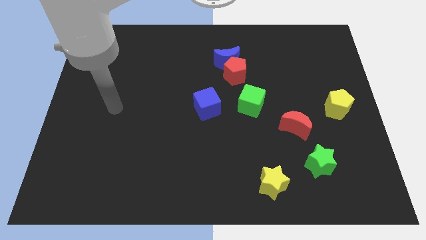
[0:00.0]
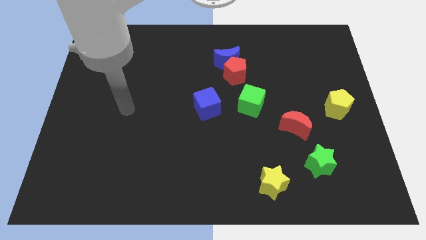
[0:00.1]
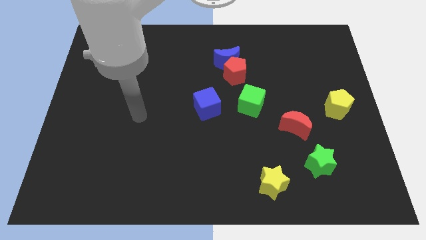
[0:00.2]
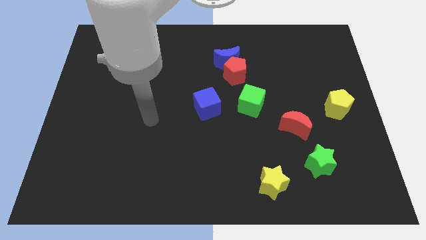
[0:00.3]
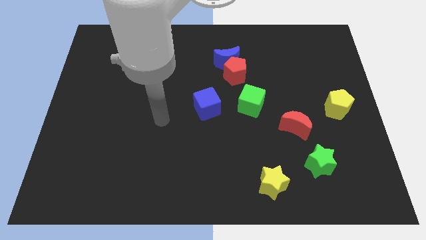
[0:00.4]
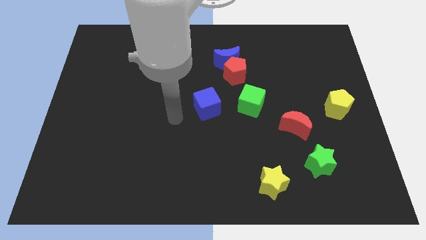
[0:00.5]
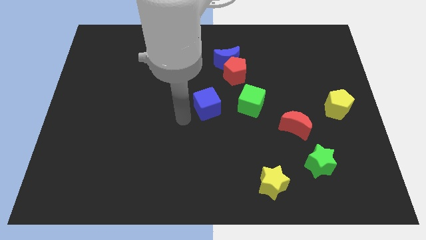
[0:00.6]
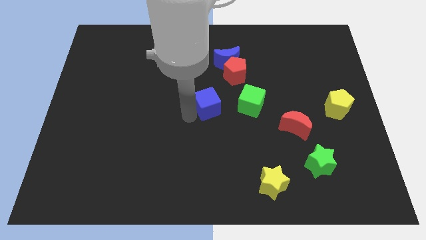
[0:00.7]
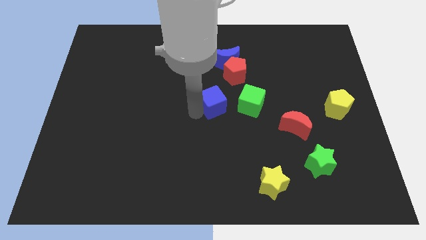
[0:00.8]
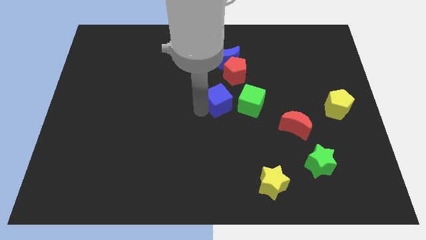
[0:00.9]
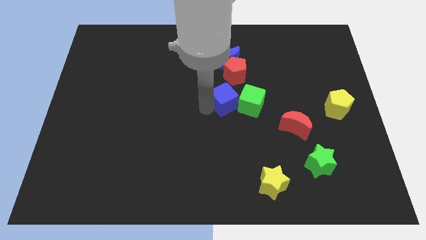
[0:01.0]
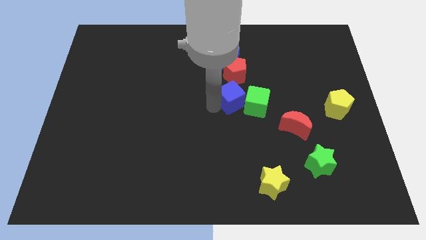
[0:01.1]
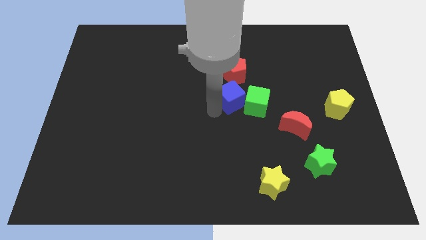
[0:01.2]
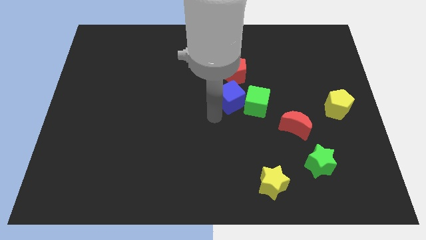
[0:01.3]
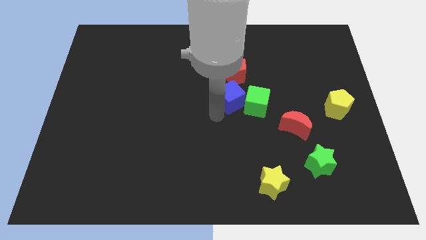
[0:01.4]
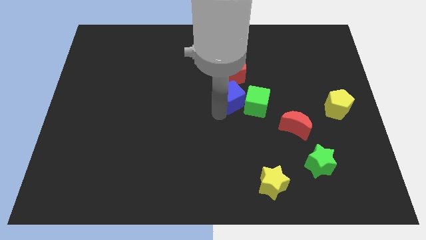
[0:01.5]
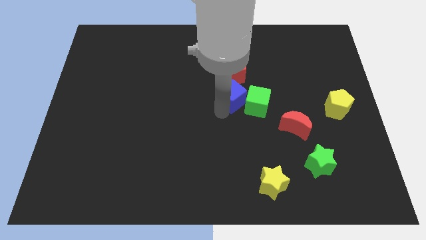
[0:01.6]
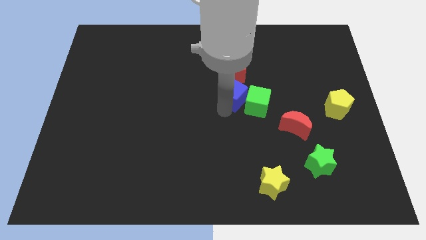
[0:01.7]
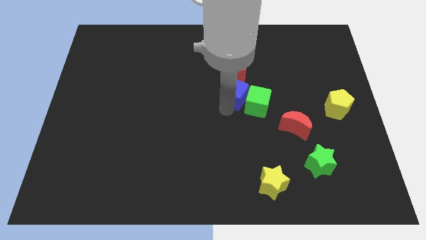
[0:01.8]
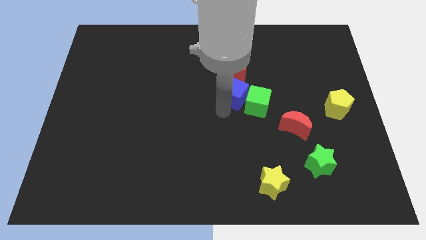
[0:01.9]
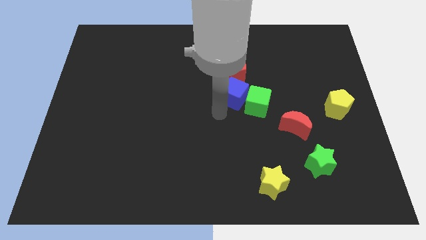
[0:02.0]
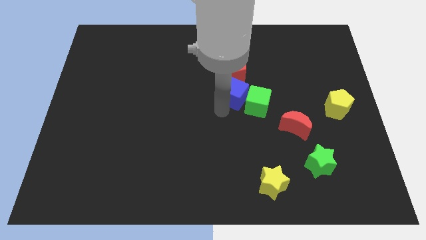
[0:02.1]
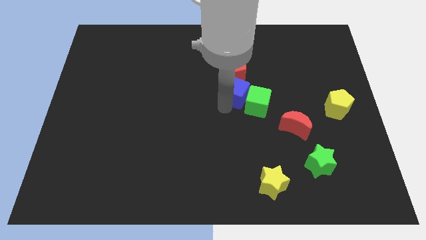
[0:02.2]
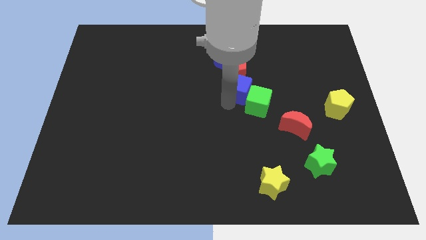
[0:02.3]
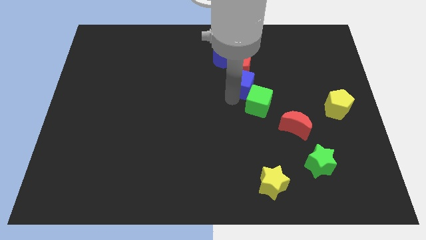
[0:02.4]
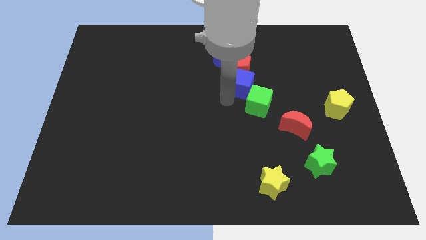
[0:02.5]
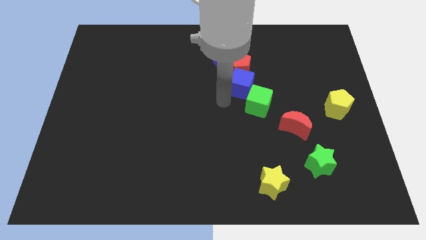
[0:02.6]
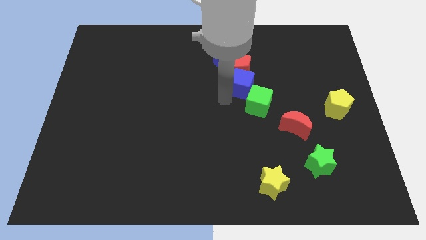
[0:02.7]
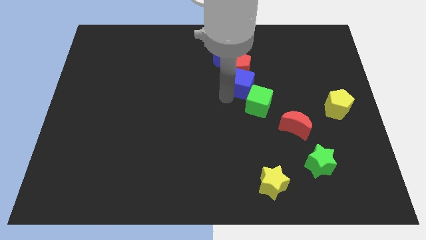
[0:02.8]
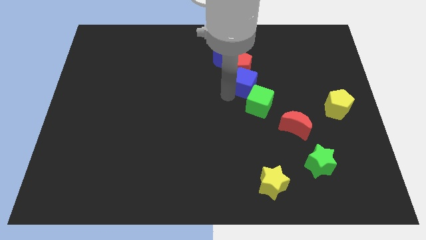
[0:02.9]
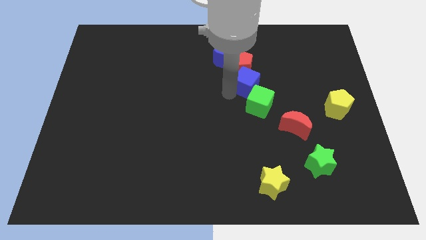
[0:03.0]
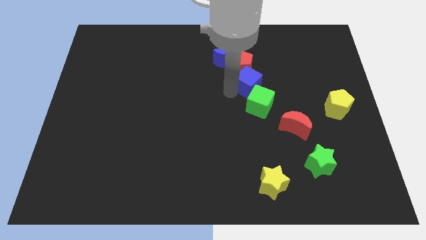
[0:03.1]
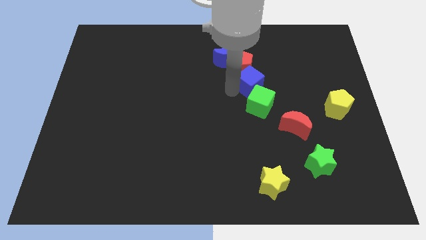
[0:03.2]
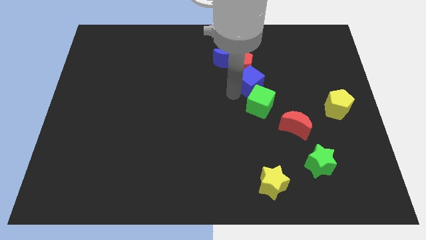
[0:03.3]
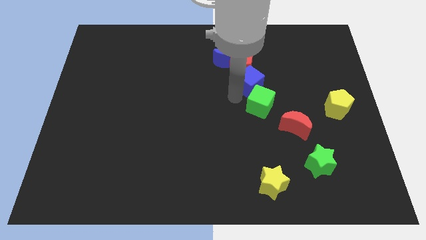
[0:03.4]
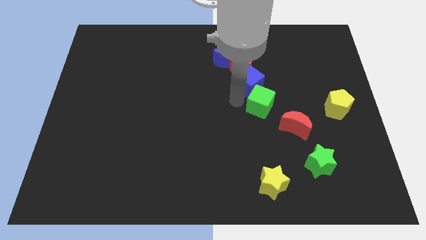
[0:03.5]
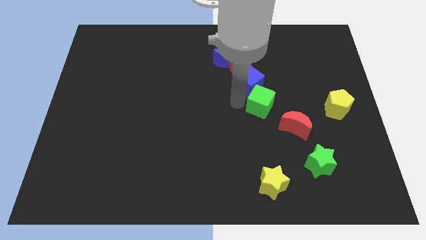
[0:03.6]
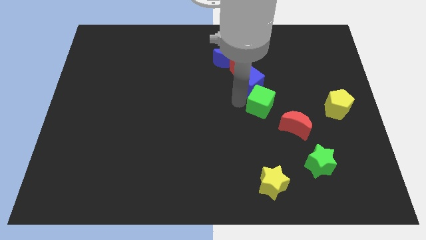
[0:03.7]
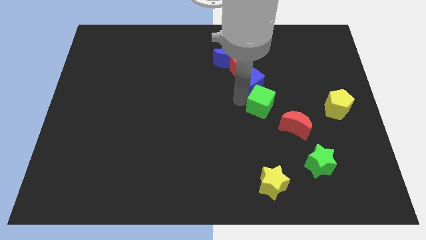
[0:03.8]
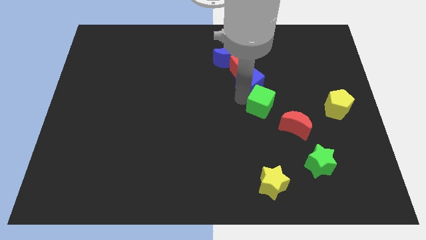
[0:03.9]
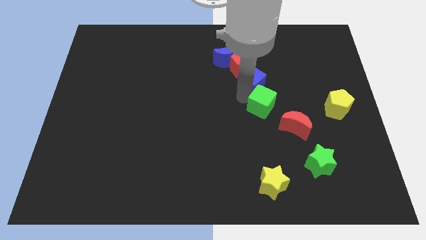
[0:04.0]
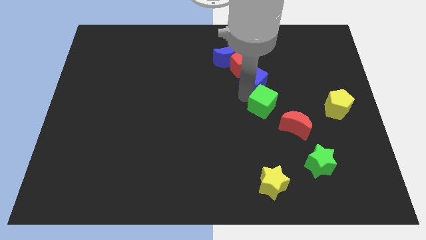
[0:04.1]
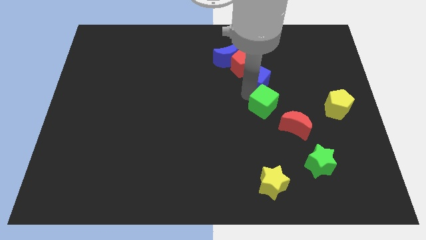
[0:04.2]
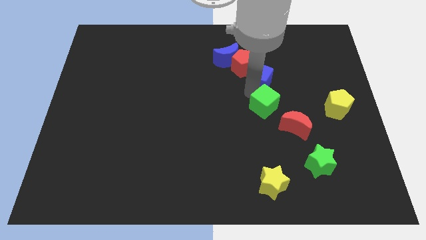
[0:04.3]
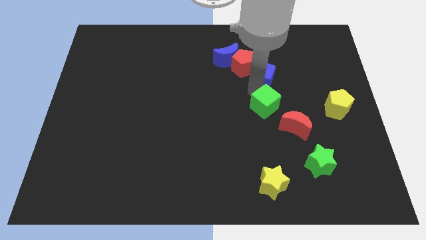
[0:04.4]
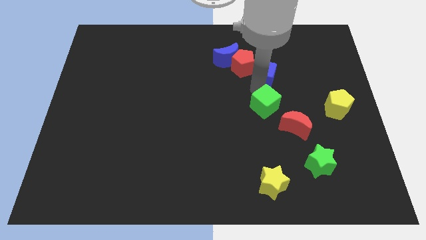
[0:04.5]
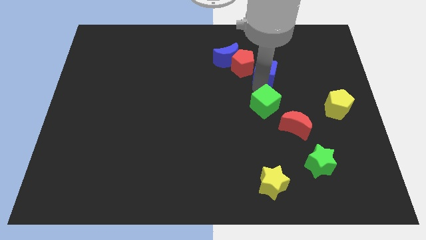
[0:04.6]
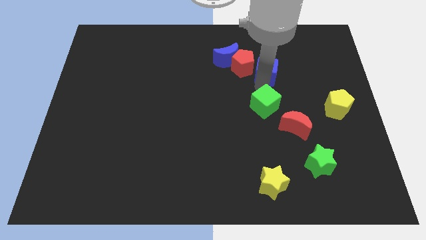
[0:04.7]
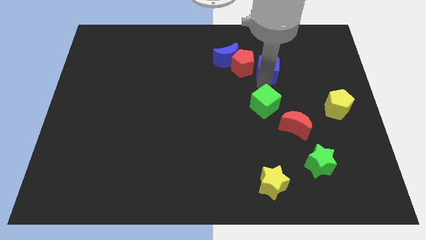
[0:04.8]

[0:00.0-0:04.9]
put the blue cube right of the blue moon

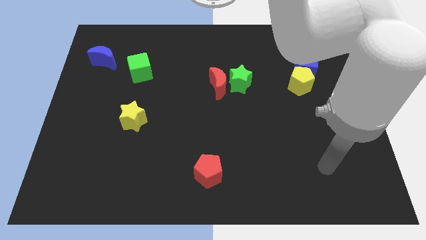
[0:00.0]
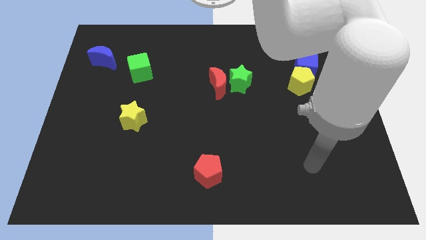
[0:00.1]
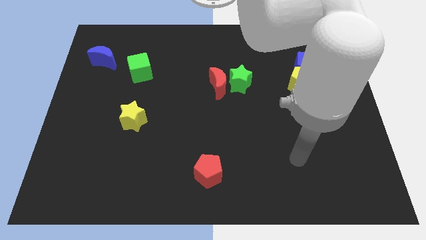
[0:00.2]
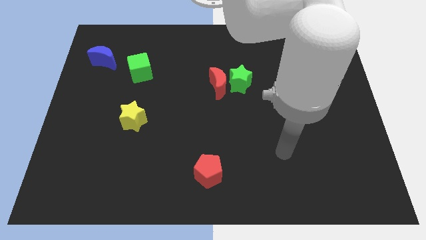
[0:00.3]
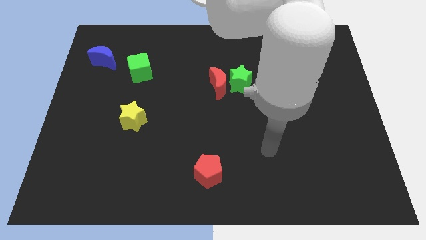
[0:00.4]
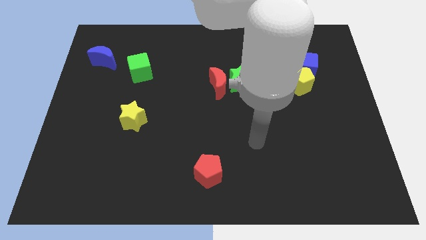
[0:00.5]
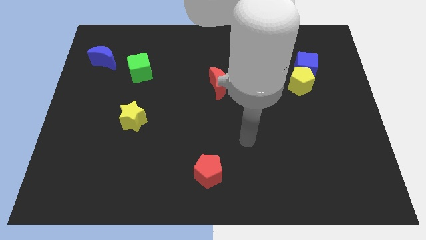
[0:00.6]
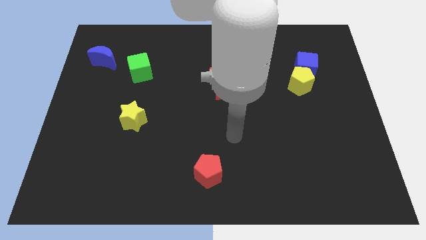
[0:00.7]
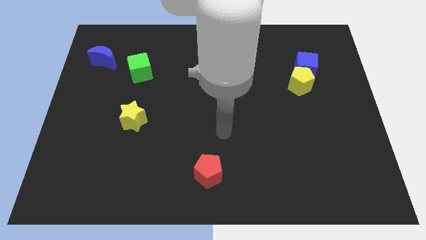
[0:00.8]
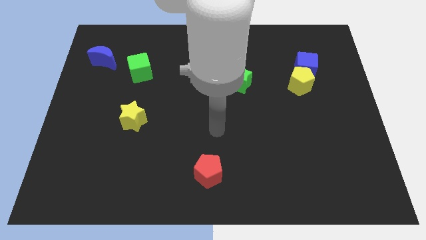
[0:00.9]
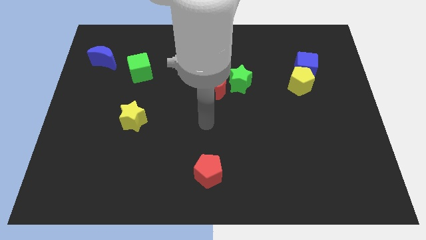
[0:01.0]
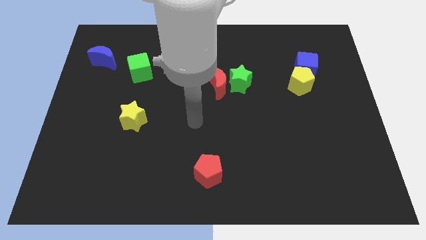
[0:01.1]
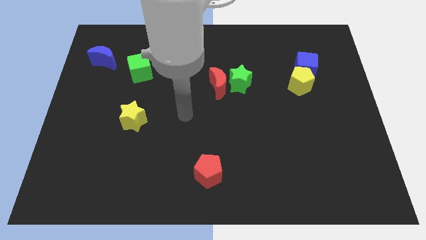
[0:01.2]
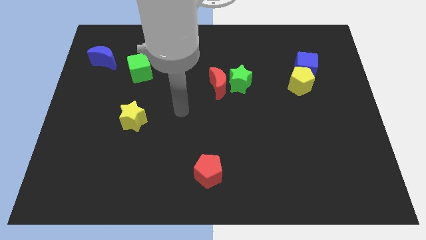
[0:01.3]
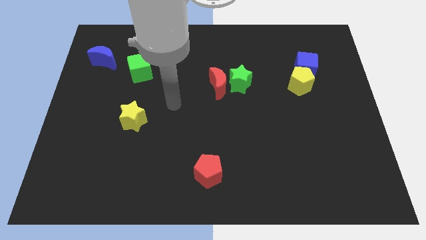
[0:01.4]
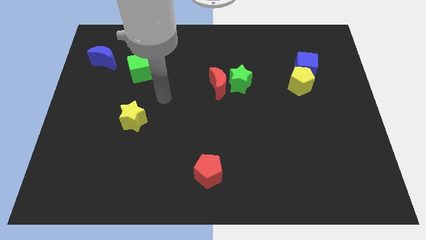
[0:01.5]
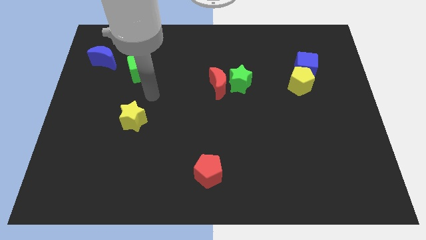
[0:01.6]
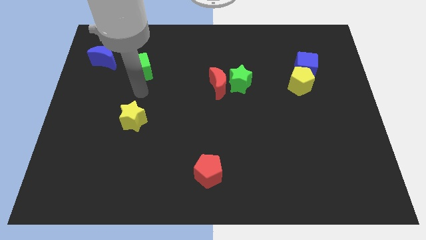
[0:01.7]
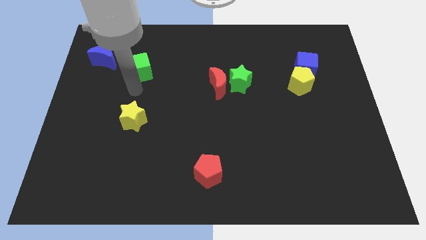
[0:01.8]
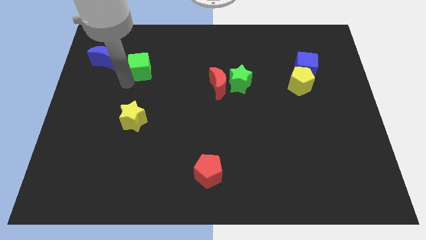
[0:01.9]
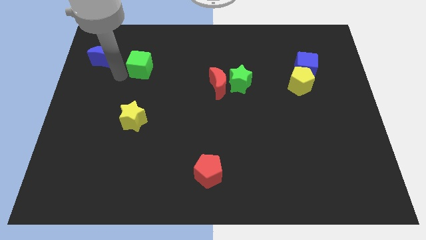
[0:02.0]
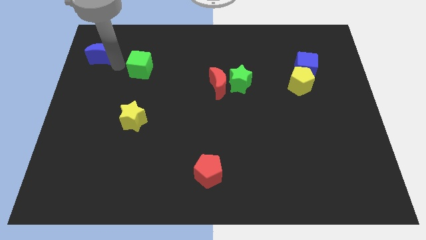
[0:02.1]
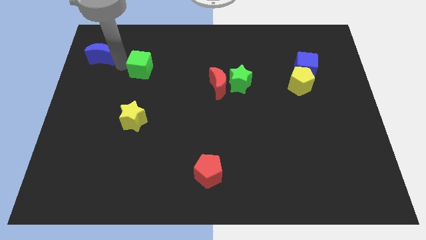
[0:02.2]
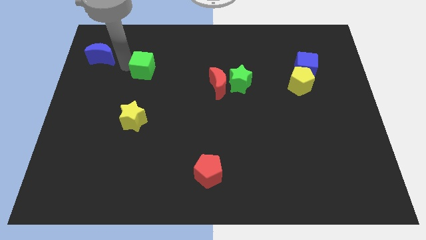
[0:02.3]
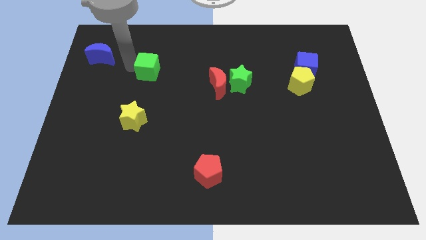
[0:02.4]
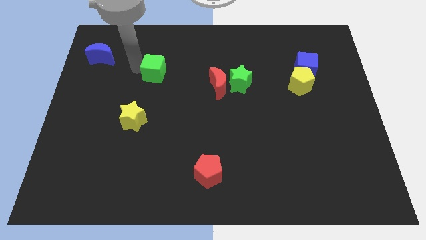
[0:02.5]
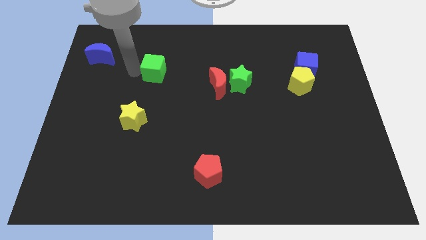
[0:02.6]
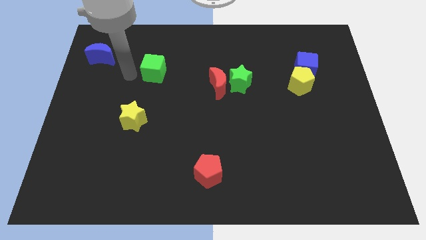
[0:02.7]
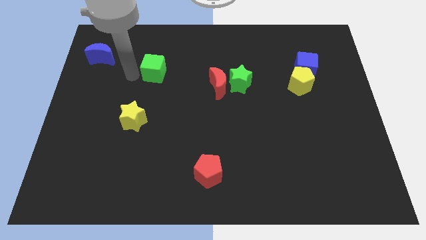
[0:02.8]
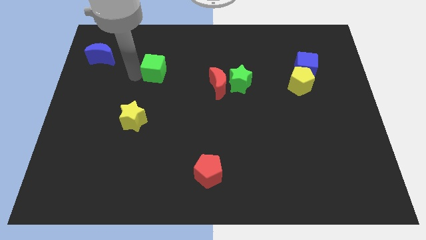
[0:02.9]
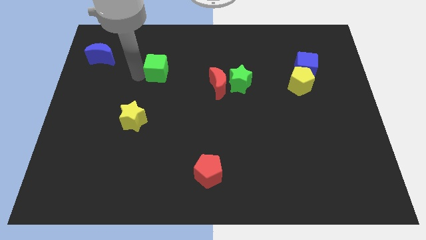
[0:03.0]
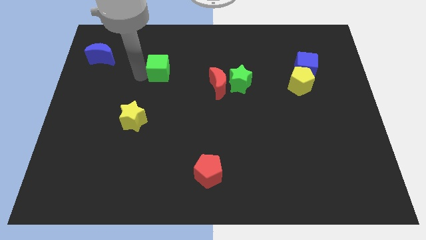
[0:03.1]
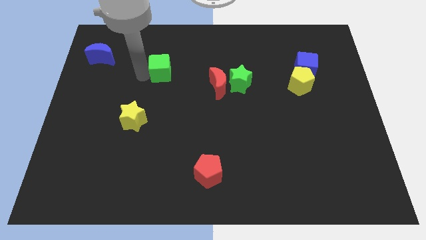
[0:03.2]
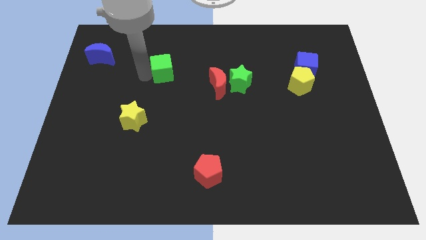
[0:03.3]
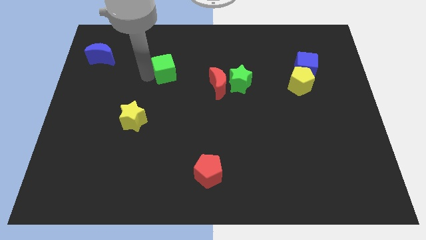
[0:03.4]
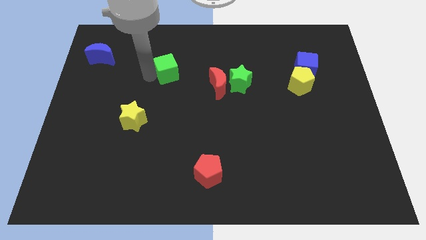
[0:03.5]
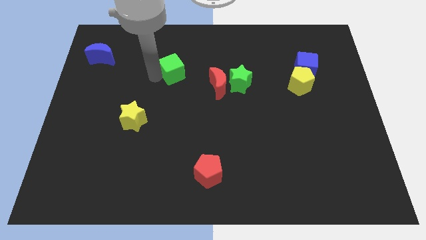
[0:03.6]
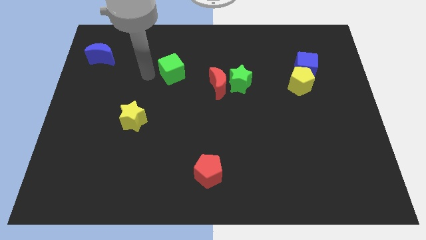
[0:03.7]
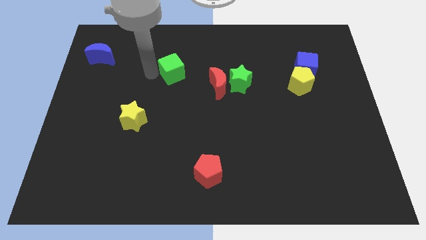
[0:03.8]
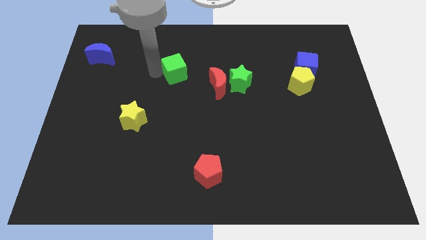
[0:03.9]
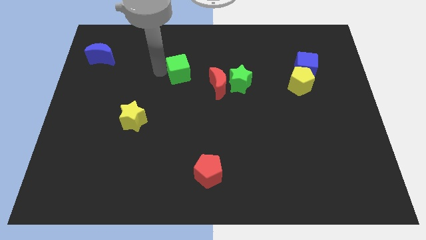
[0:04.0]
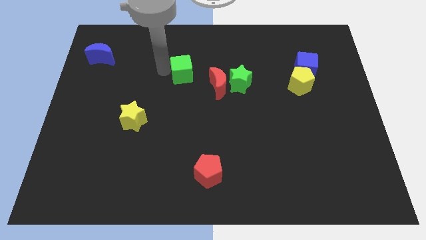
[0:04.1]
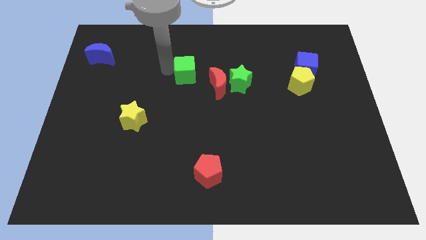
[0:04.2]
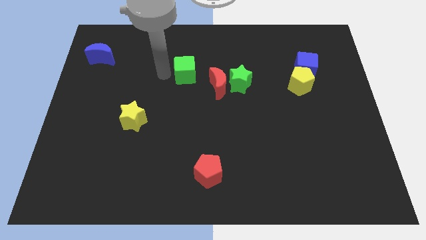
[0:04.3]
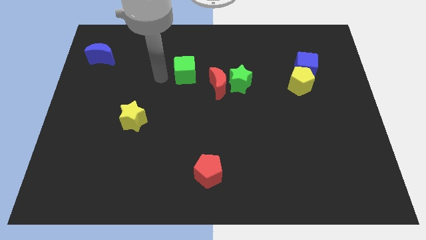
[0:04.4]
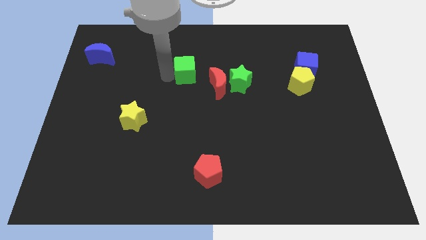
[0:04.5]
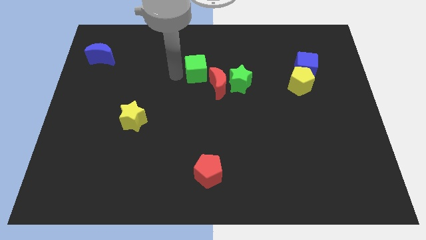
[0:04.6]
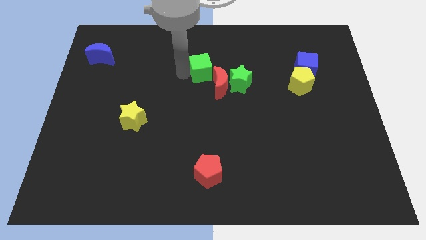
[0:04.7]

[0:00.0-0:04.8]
push the green cube to the top left side of the green star
